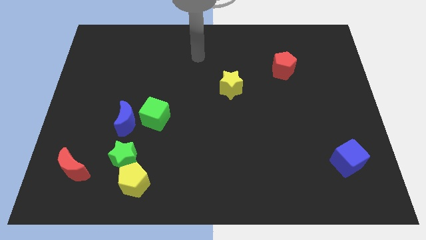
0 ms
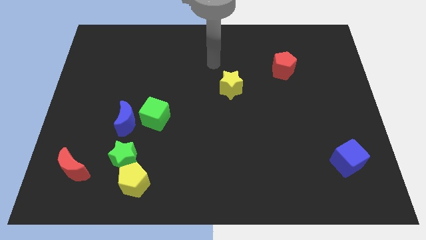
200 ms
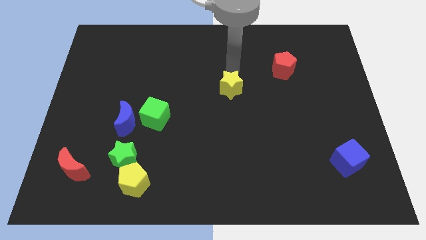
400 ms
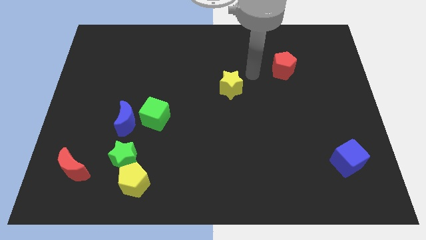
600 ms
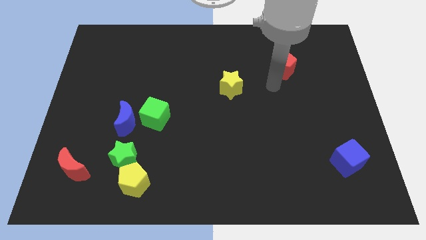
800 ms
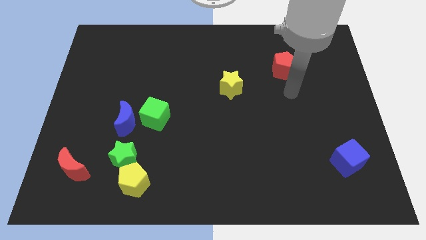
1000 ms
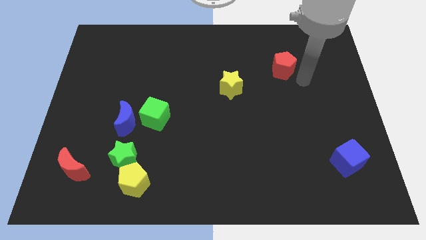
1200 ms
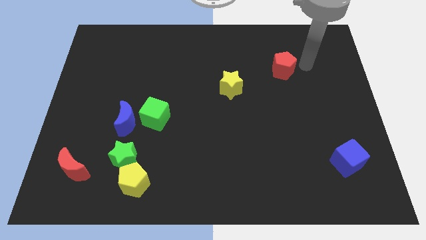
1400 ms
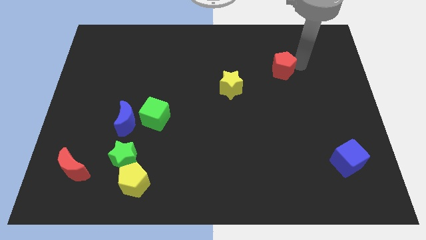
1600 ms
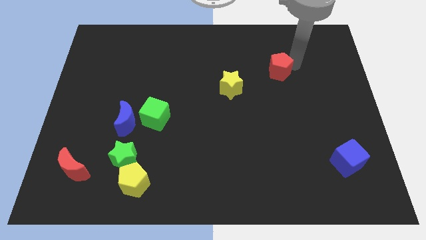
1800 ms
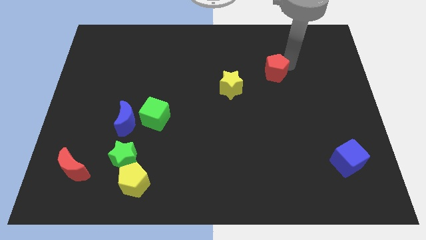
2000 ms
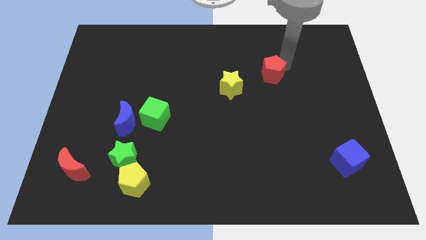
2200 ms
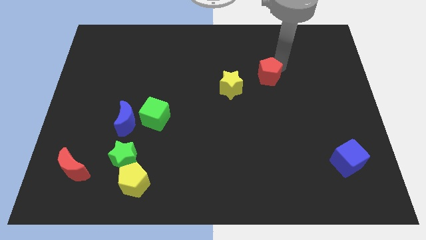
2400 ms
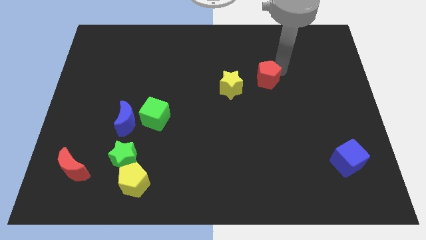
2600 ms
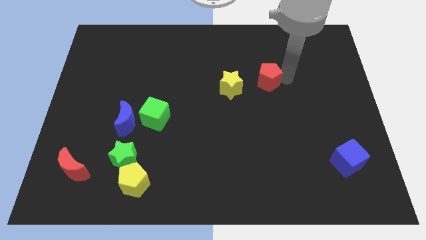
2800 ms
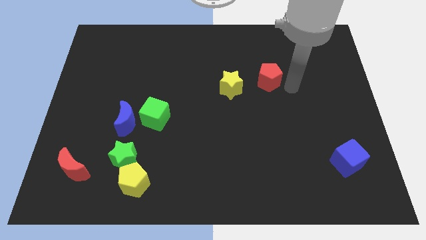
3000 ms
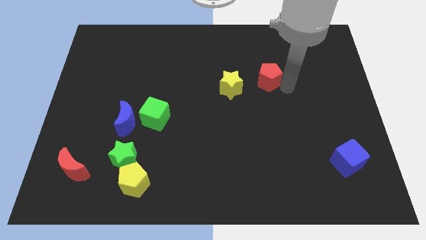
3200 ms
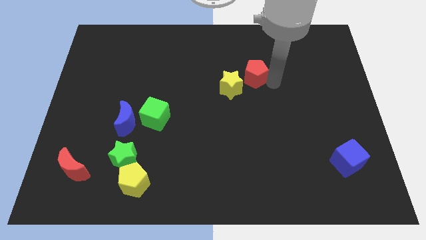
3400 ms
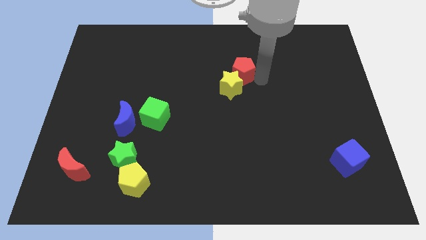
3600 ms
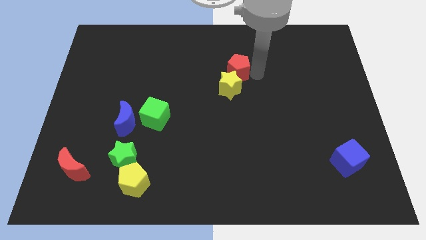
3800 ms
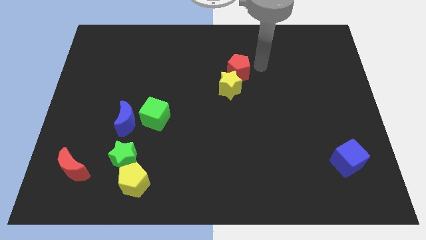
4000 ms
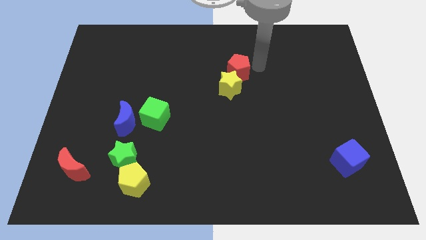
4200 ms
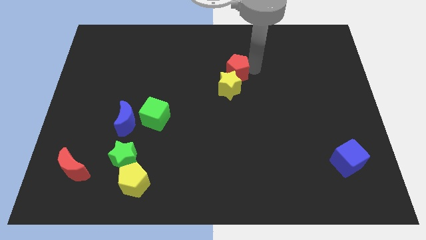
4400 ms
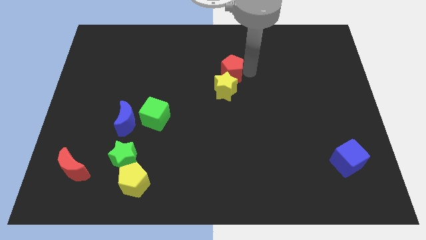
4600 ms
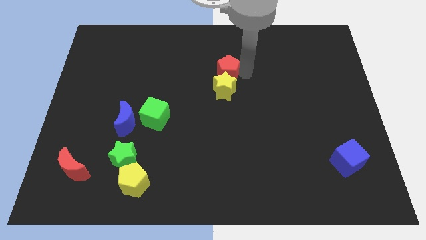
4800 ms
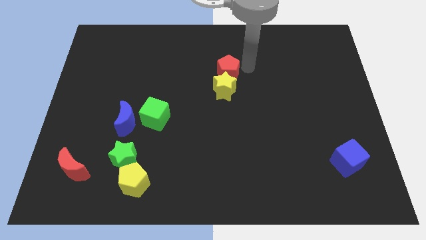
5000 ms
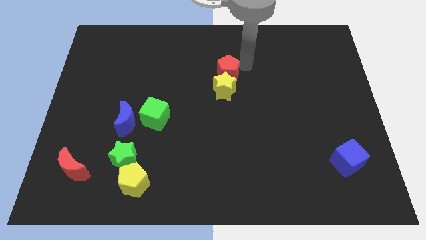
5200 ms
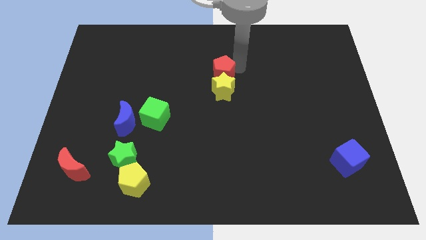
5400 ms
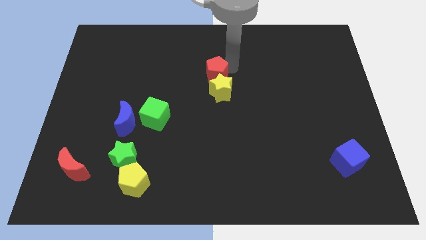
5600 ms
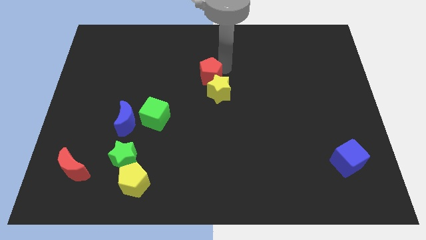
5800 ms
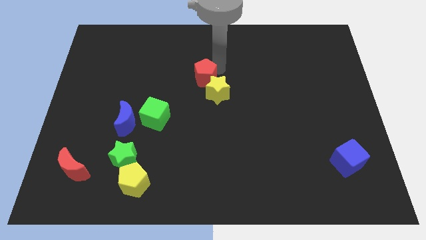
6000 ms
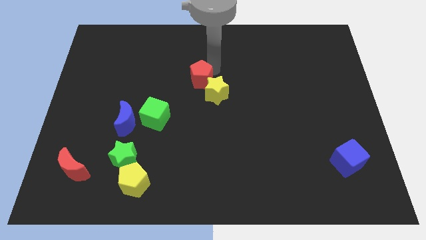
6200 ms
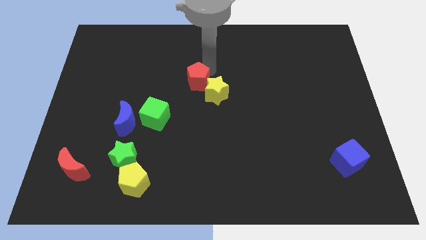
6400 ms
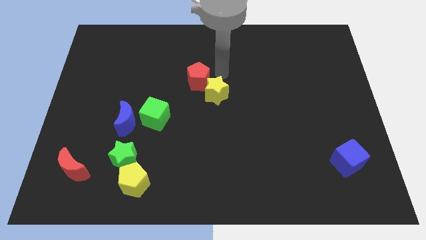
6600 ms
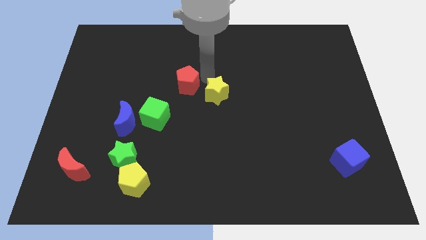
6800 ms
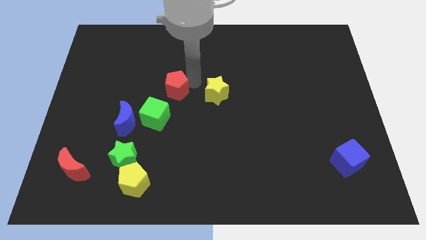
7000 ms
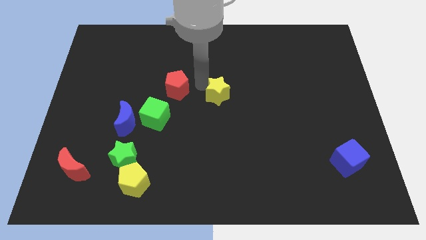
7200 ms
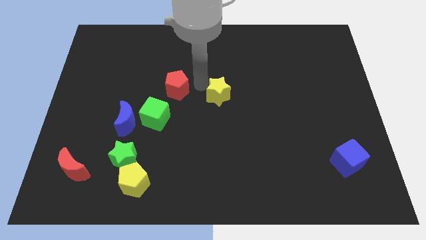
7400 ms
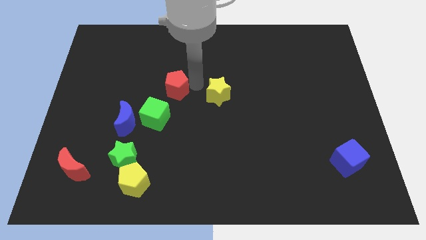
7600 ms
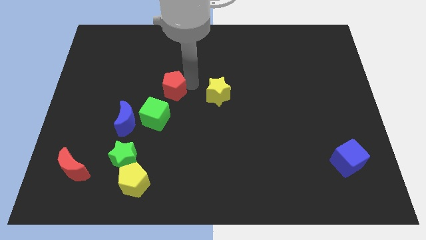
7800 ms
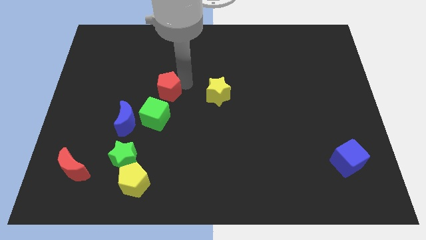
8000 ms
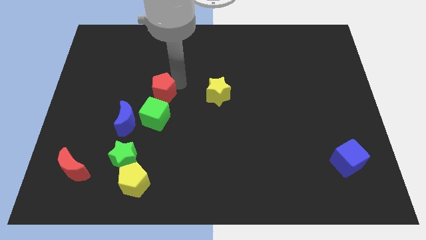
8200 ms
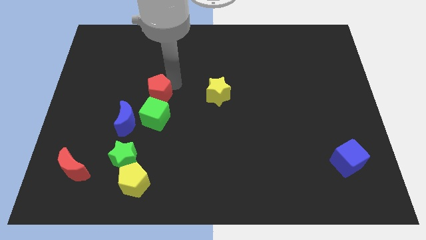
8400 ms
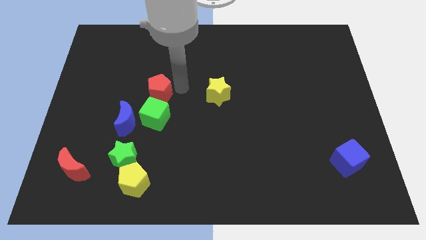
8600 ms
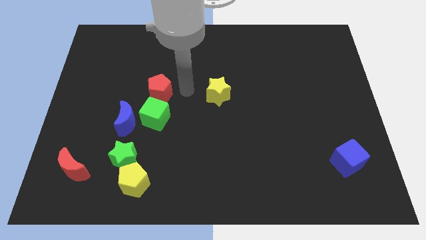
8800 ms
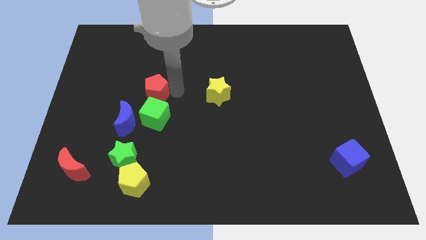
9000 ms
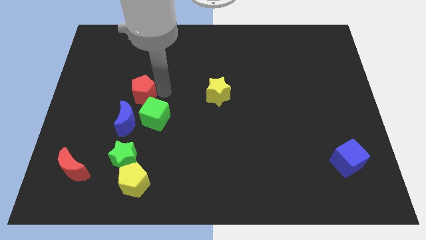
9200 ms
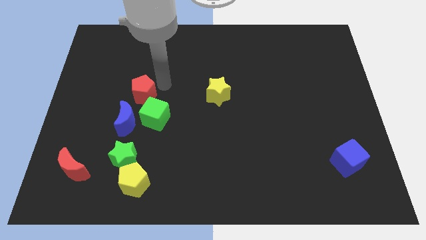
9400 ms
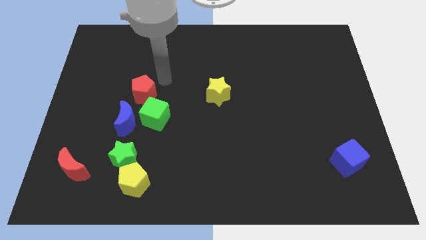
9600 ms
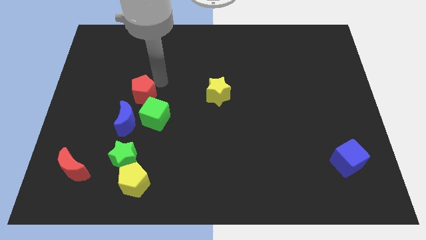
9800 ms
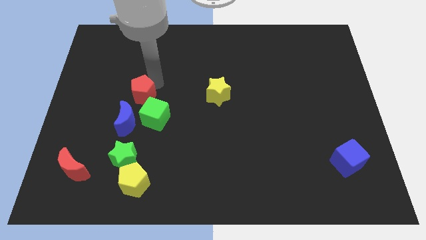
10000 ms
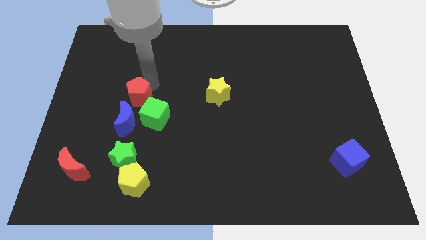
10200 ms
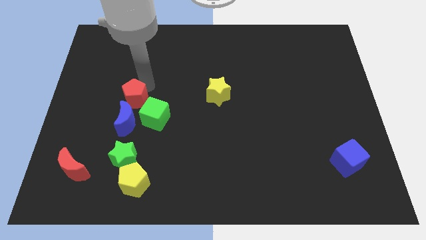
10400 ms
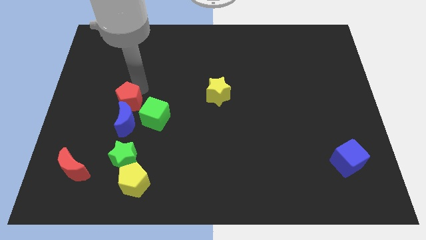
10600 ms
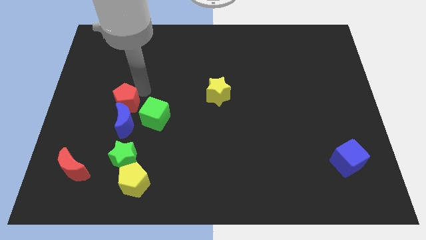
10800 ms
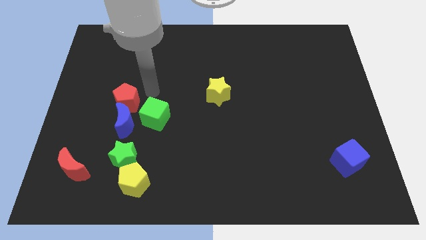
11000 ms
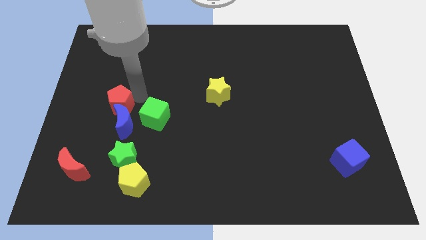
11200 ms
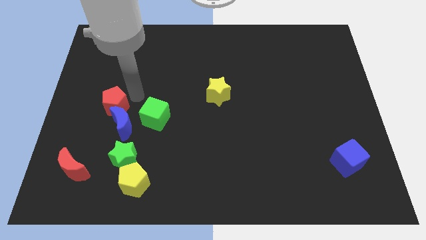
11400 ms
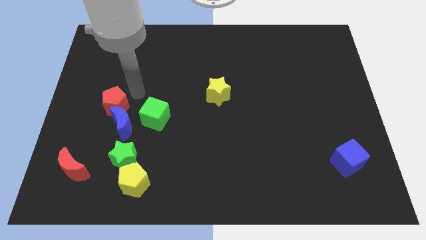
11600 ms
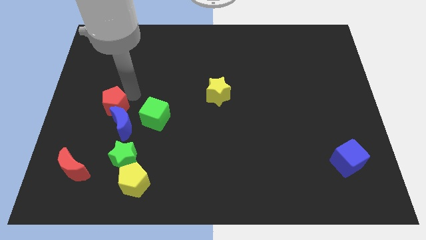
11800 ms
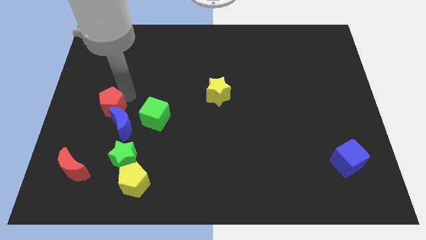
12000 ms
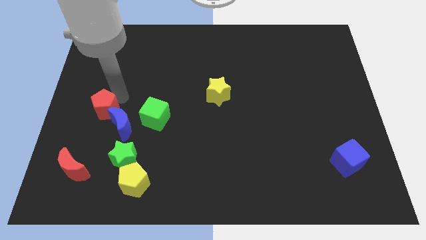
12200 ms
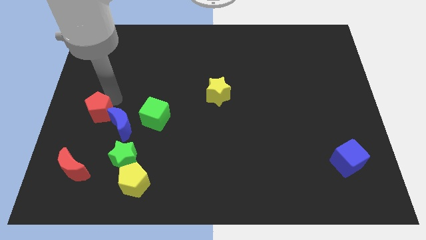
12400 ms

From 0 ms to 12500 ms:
slide the red pentagon to the top of the red moon

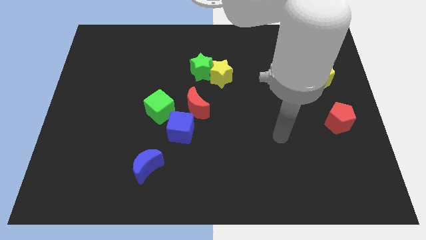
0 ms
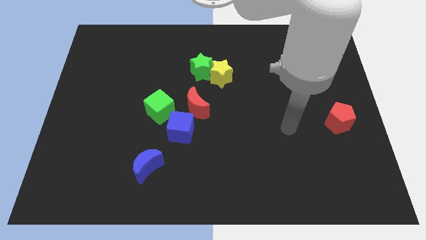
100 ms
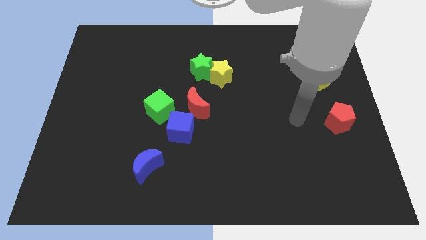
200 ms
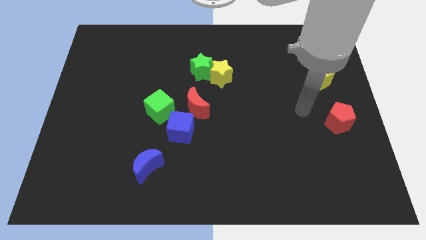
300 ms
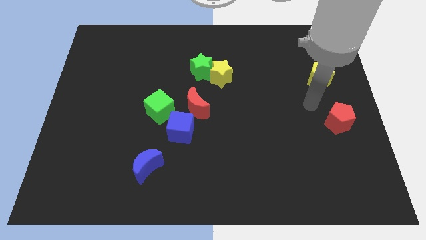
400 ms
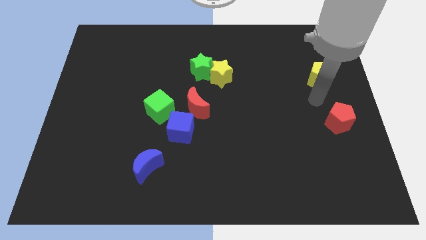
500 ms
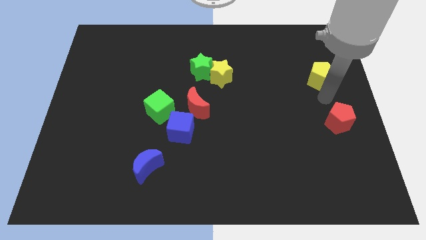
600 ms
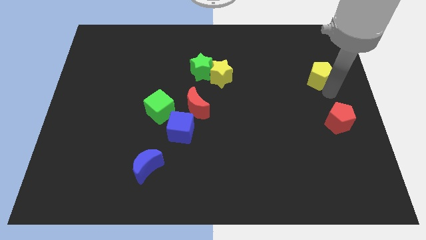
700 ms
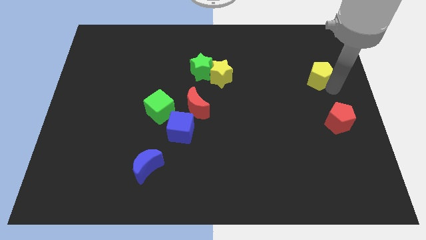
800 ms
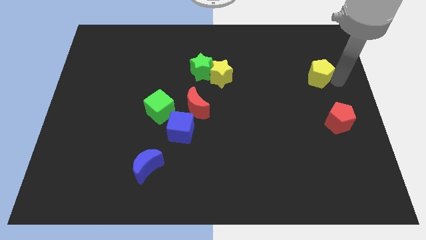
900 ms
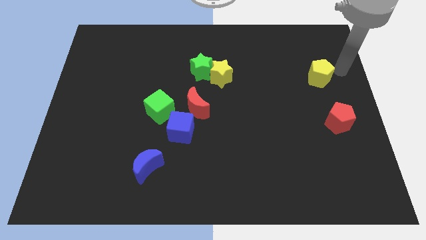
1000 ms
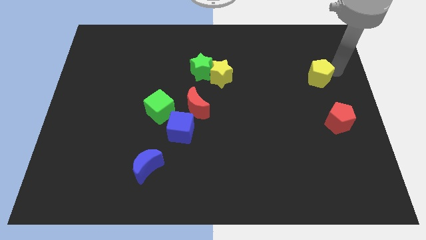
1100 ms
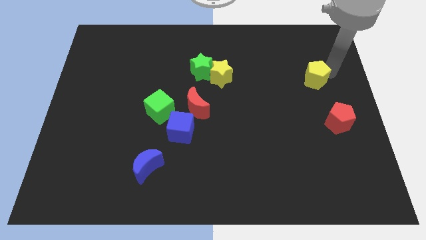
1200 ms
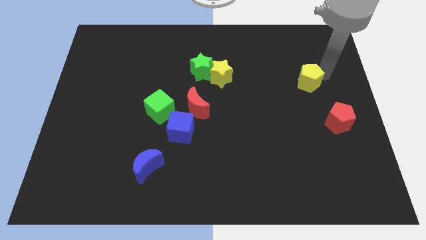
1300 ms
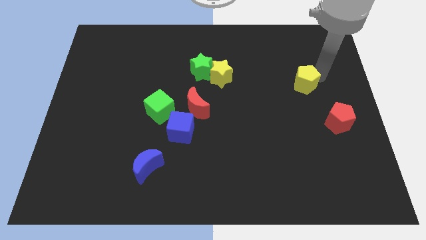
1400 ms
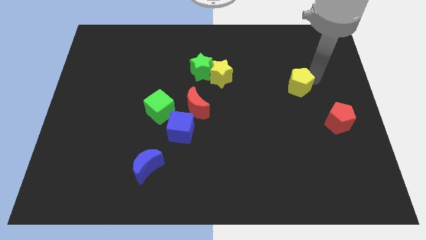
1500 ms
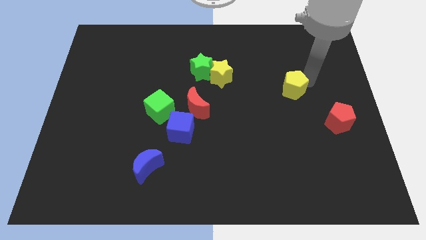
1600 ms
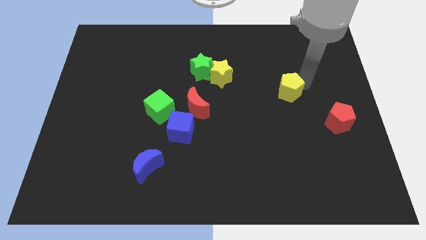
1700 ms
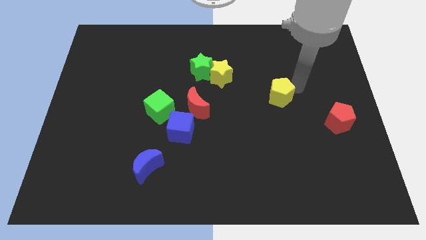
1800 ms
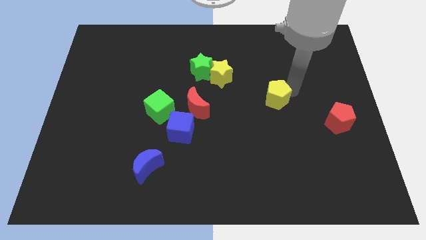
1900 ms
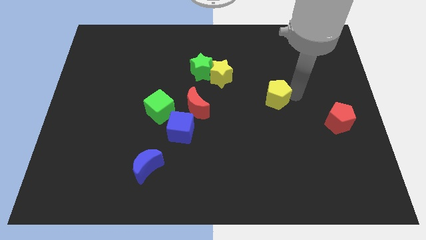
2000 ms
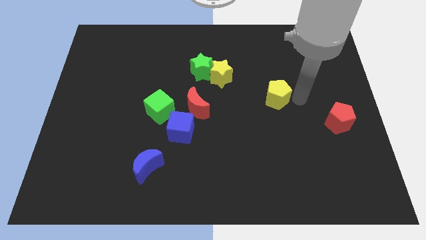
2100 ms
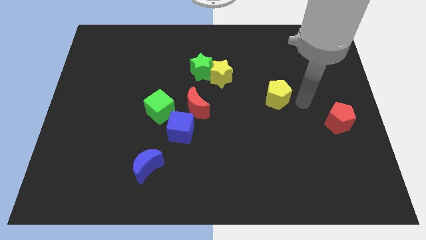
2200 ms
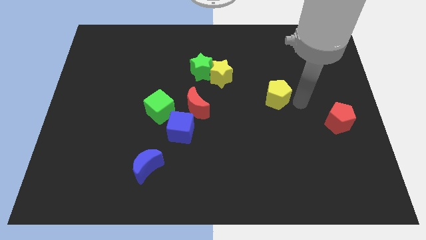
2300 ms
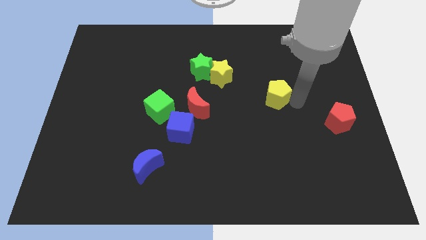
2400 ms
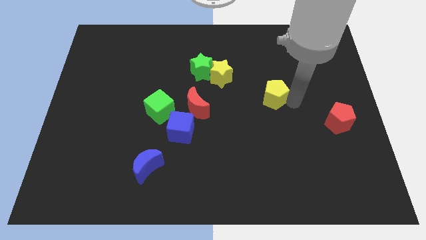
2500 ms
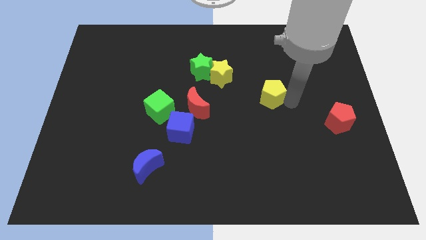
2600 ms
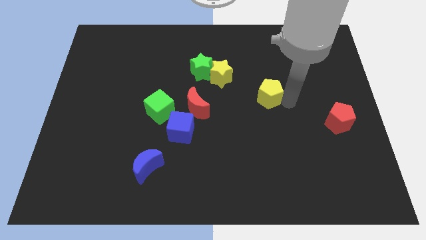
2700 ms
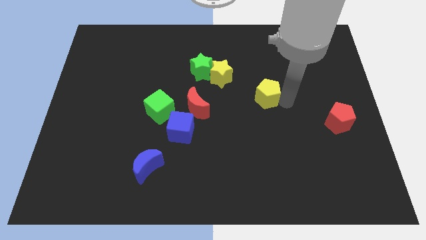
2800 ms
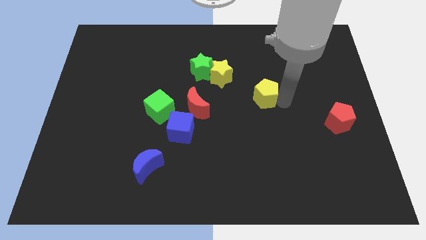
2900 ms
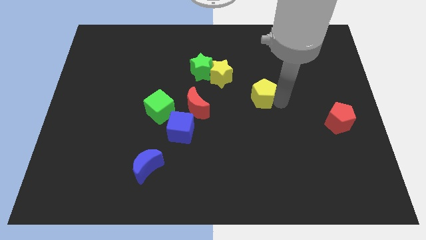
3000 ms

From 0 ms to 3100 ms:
put the yellow pentagon to the bottom right of the yellow star
